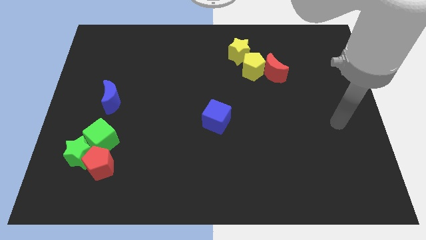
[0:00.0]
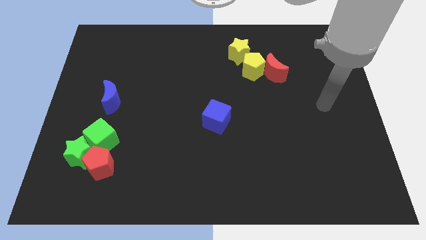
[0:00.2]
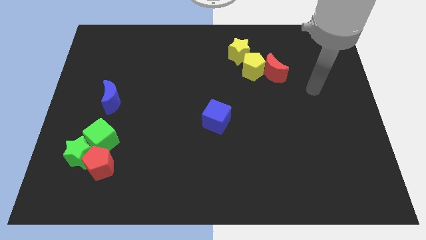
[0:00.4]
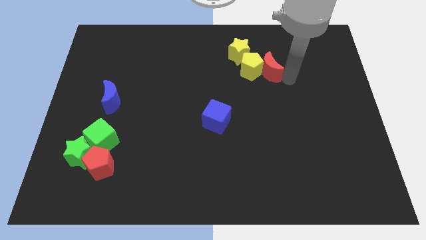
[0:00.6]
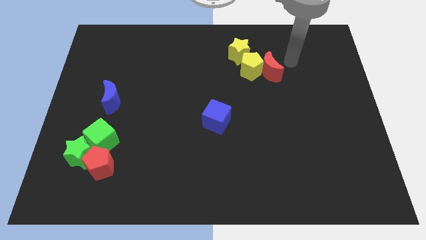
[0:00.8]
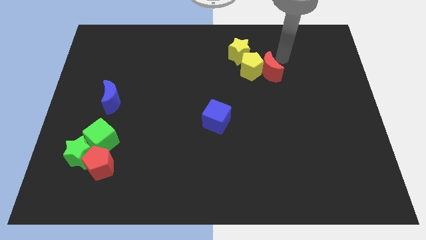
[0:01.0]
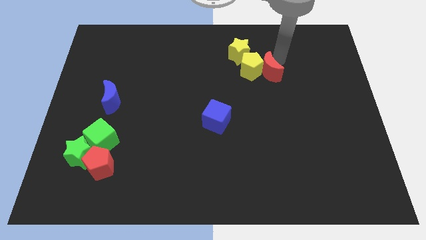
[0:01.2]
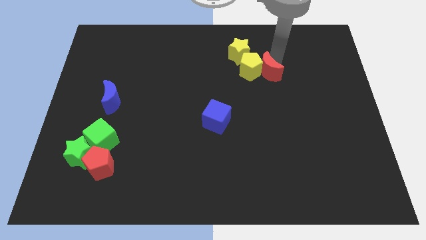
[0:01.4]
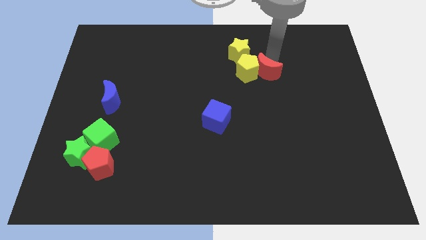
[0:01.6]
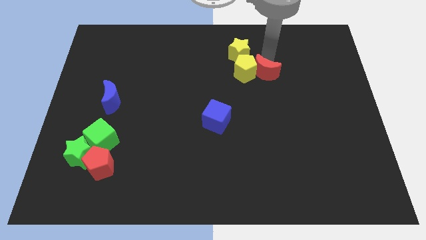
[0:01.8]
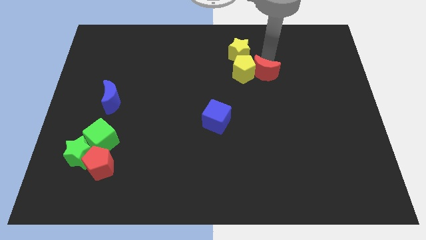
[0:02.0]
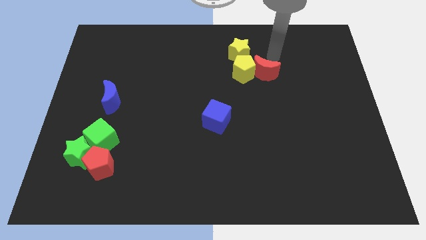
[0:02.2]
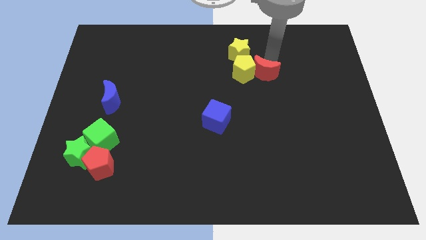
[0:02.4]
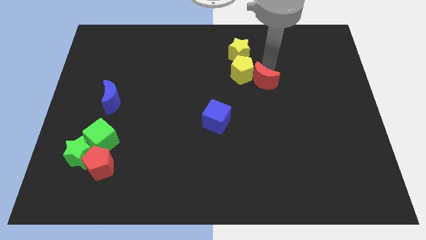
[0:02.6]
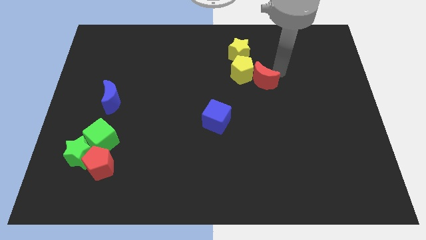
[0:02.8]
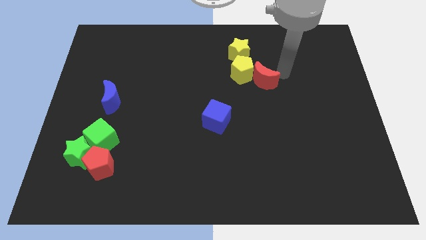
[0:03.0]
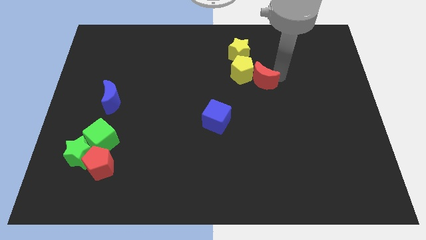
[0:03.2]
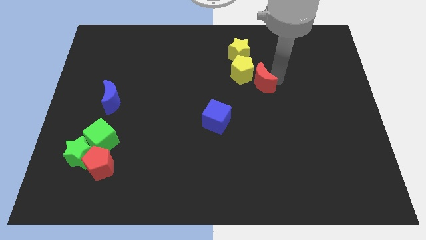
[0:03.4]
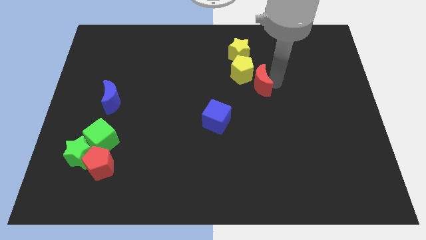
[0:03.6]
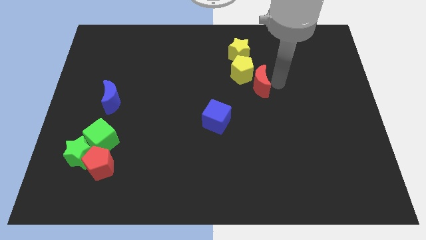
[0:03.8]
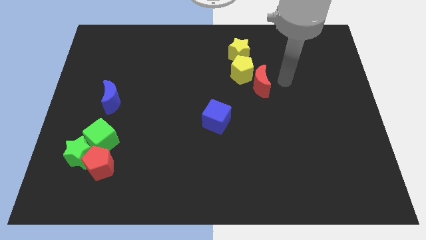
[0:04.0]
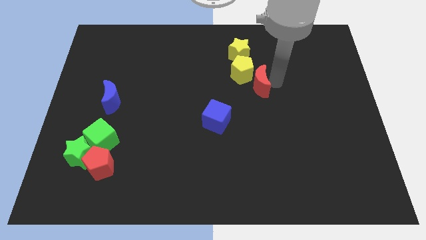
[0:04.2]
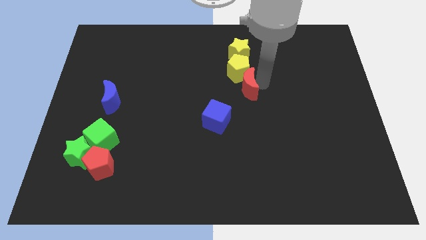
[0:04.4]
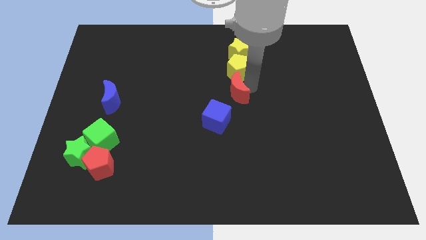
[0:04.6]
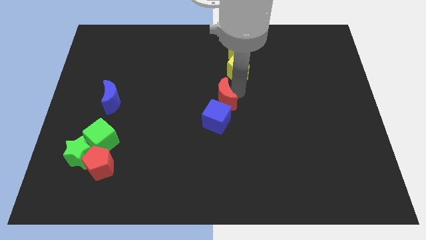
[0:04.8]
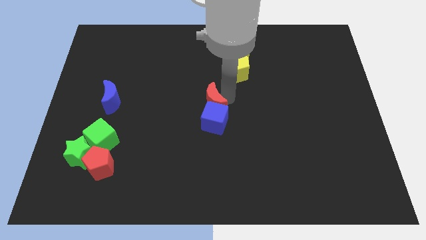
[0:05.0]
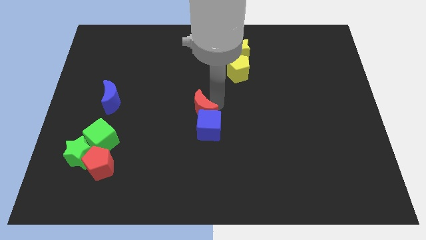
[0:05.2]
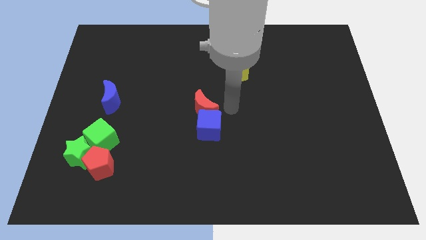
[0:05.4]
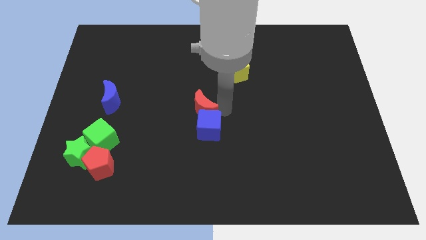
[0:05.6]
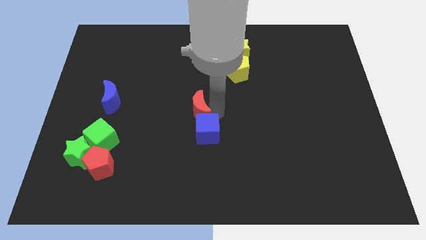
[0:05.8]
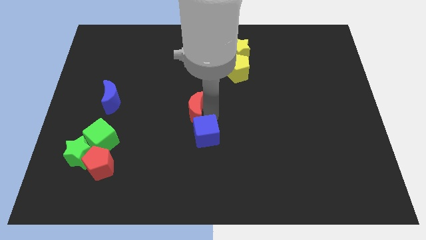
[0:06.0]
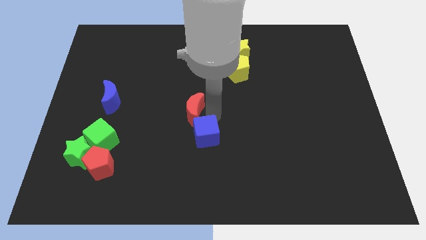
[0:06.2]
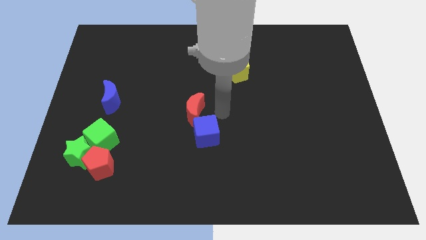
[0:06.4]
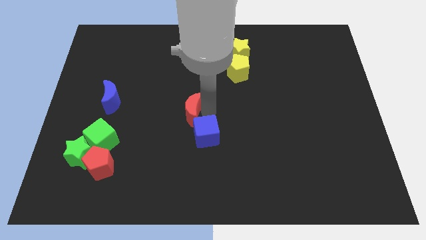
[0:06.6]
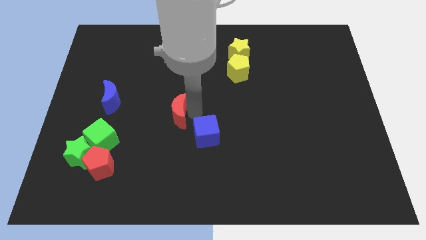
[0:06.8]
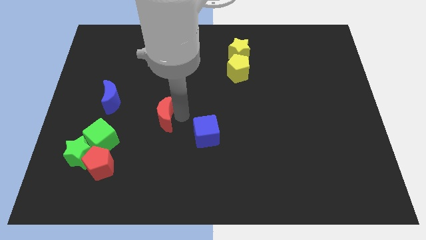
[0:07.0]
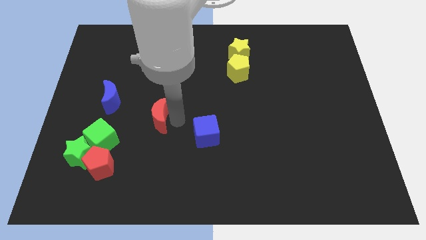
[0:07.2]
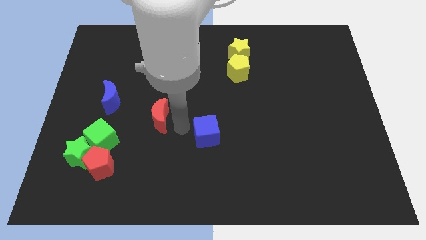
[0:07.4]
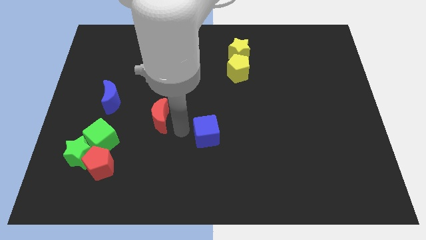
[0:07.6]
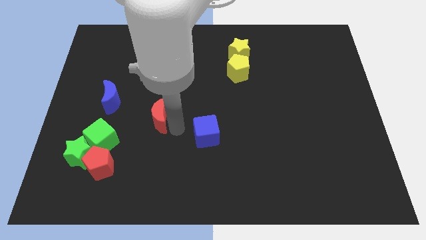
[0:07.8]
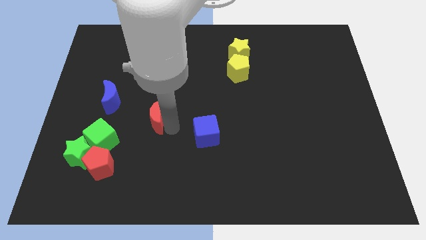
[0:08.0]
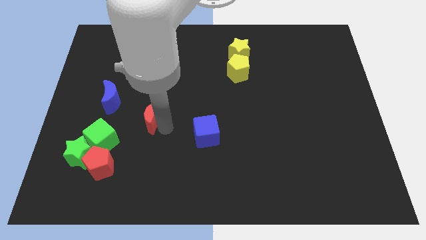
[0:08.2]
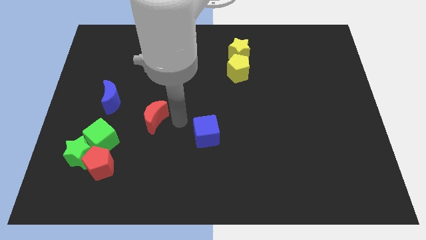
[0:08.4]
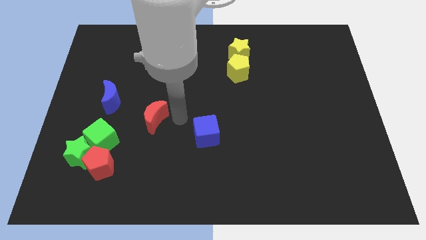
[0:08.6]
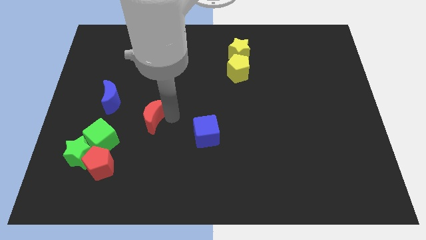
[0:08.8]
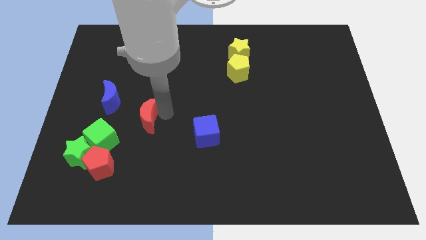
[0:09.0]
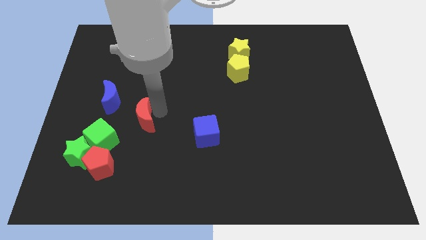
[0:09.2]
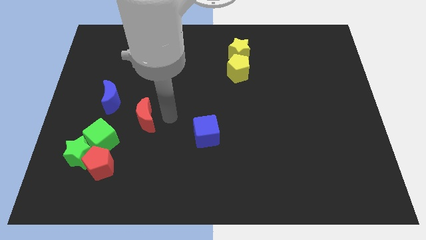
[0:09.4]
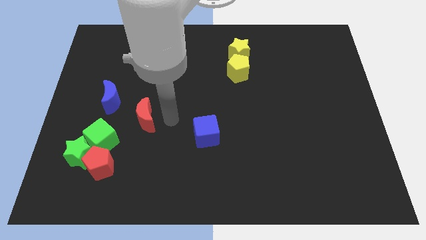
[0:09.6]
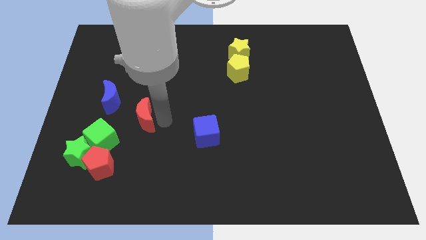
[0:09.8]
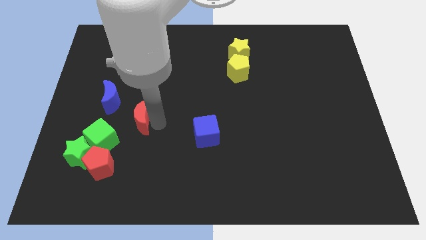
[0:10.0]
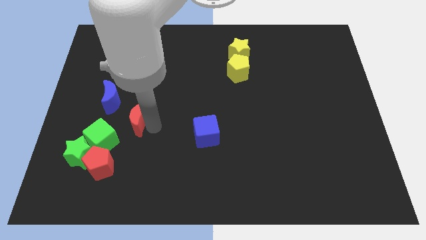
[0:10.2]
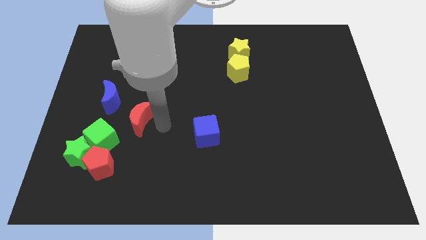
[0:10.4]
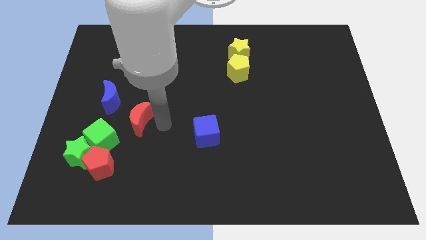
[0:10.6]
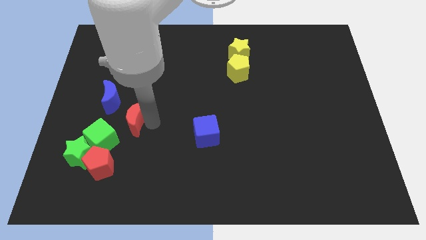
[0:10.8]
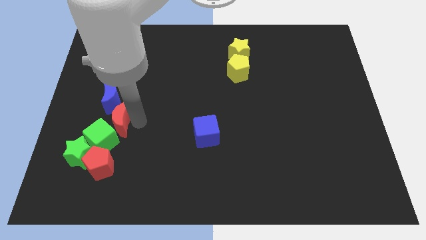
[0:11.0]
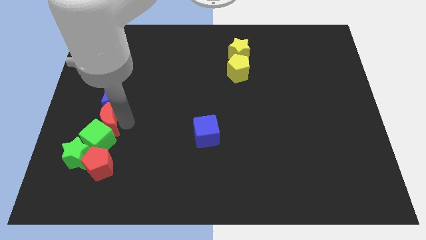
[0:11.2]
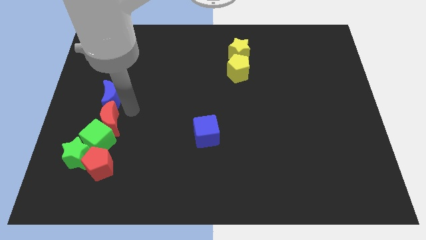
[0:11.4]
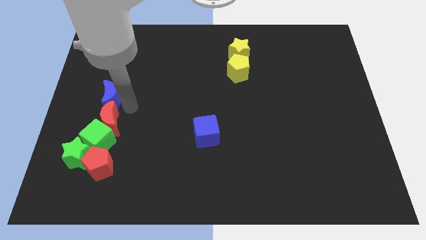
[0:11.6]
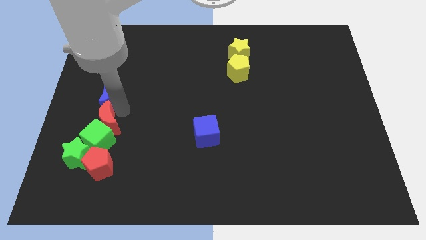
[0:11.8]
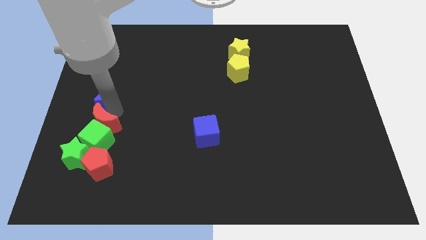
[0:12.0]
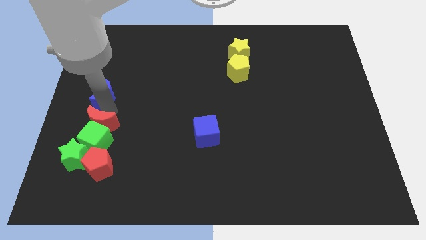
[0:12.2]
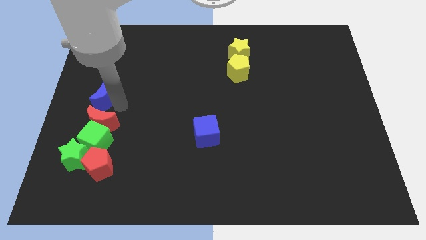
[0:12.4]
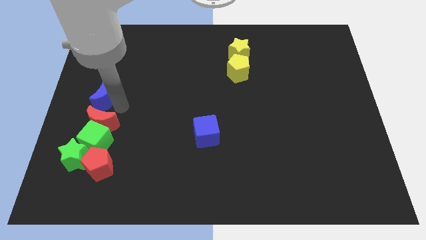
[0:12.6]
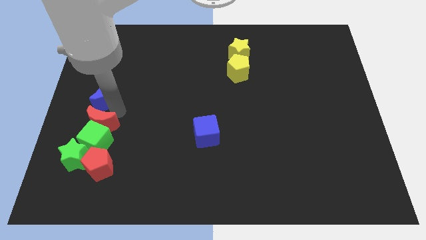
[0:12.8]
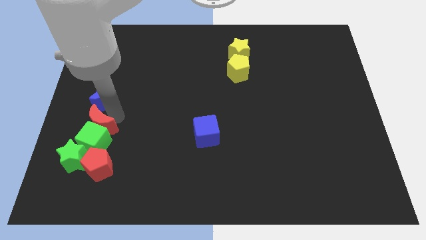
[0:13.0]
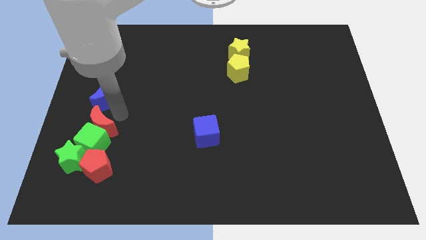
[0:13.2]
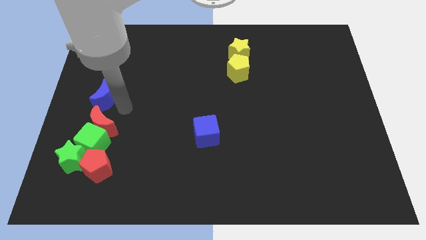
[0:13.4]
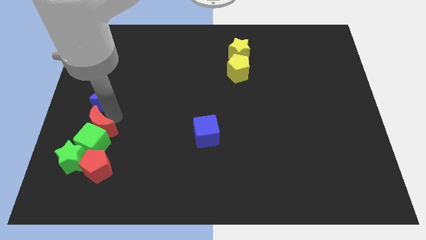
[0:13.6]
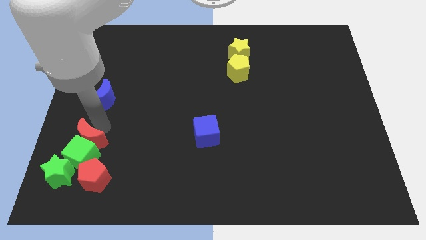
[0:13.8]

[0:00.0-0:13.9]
slide the red moon diagonally up and to the left of the red pentagon
